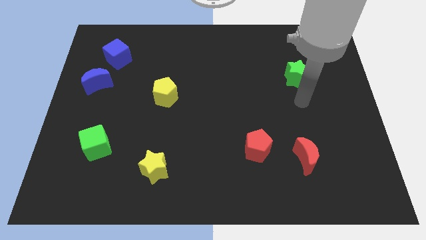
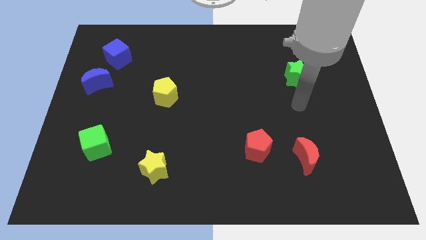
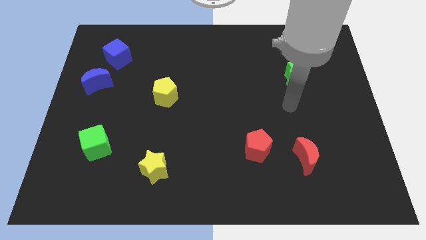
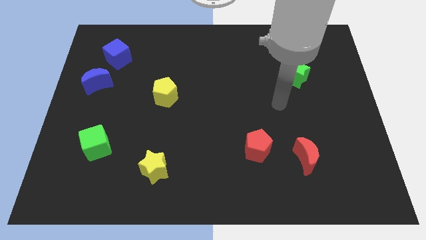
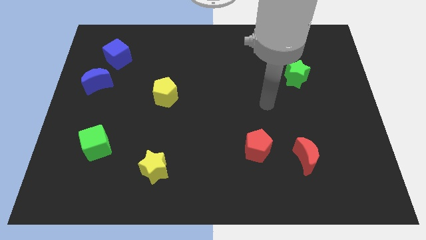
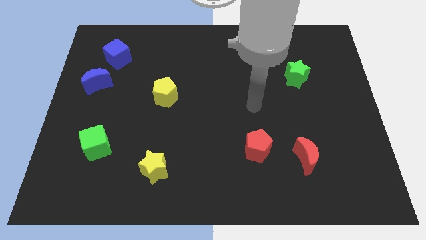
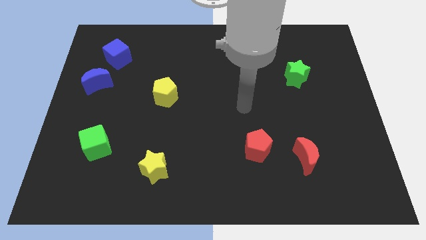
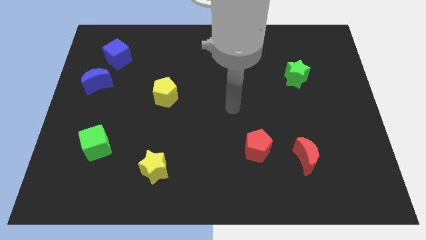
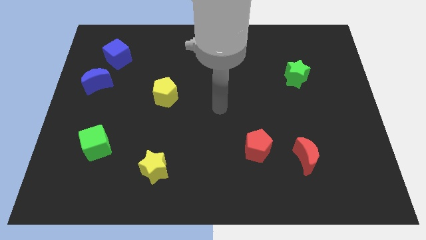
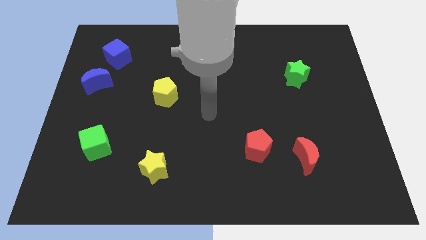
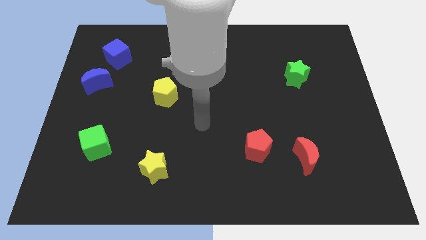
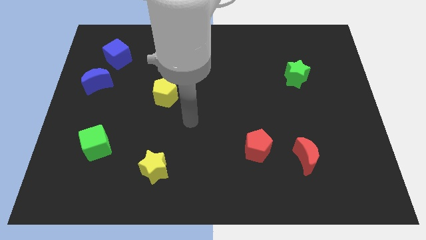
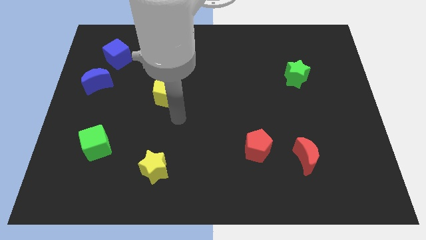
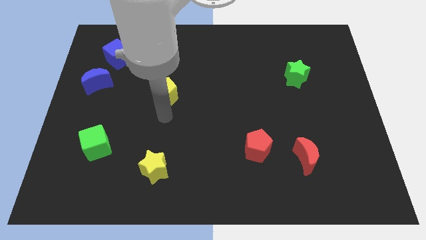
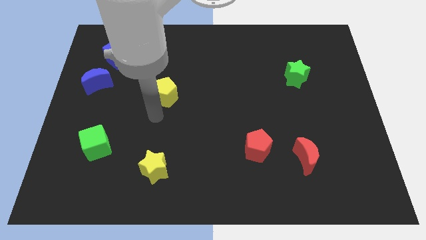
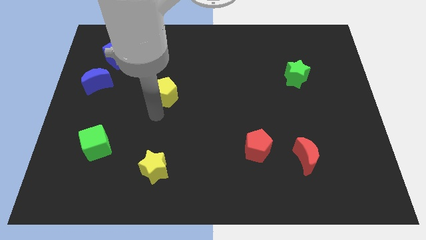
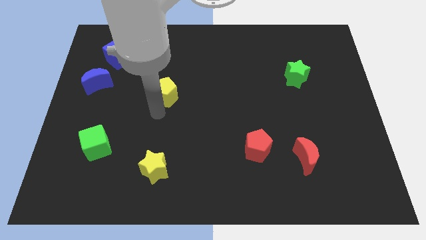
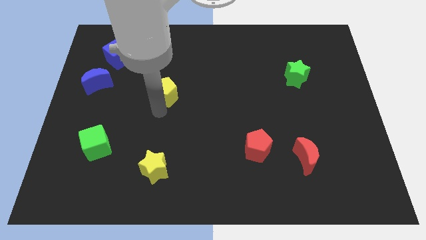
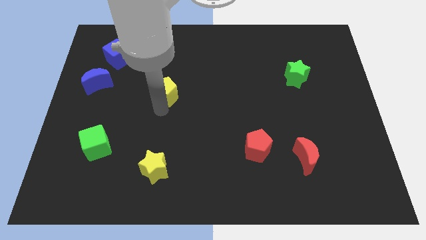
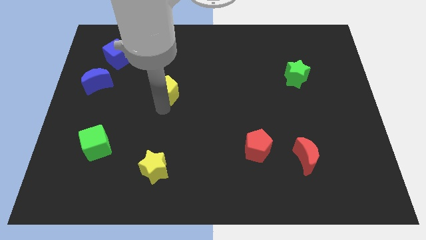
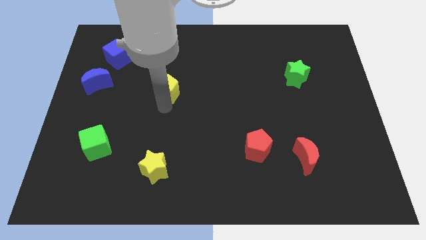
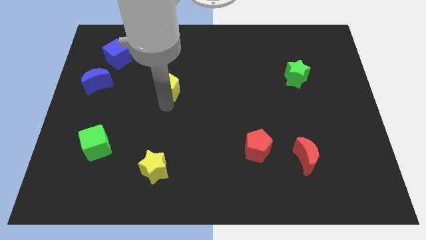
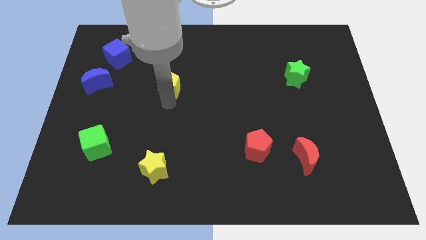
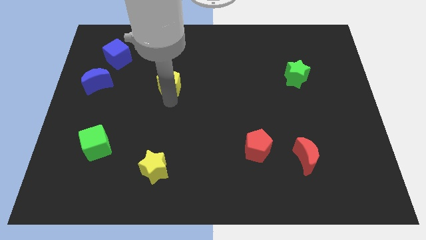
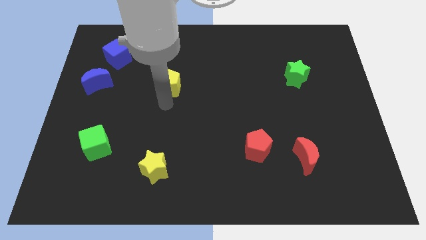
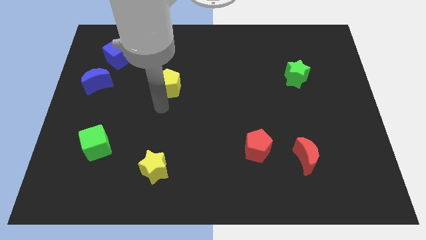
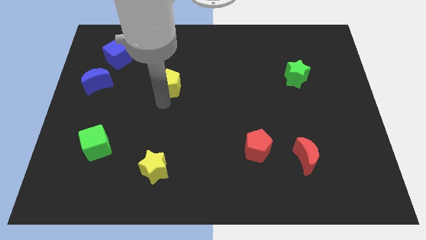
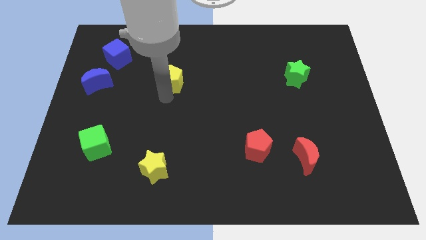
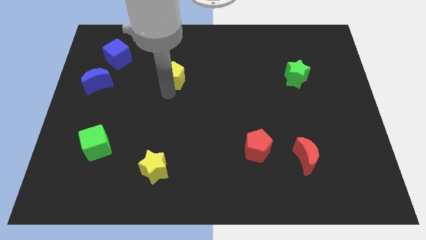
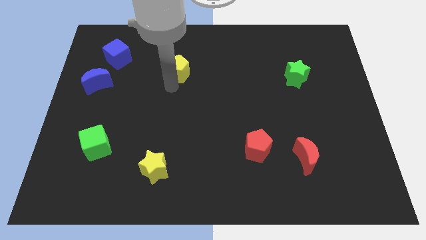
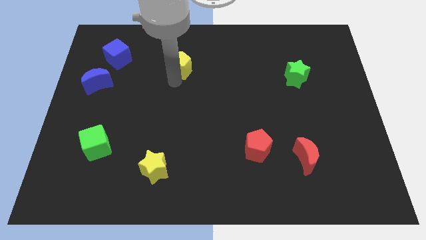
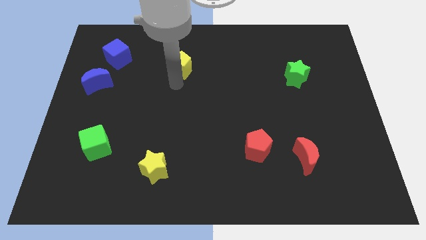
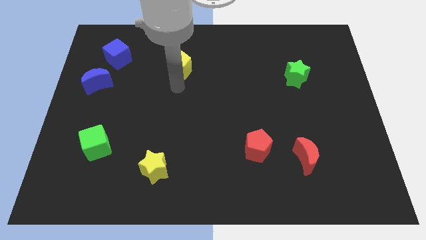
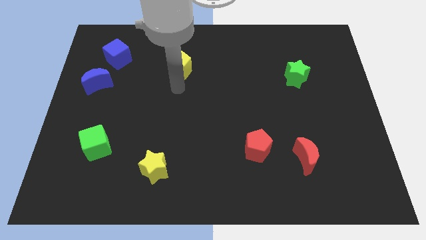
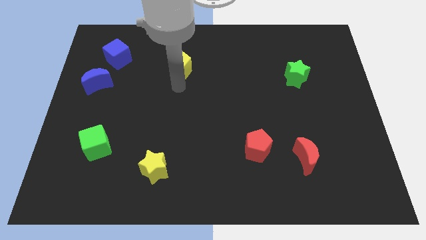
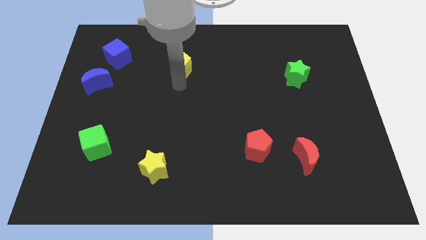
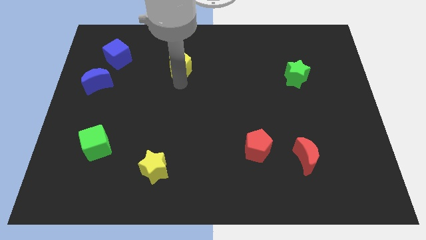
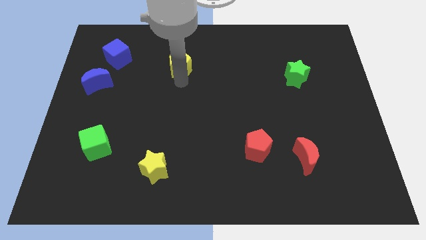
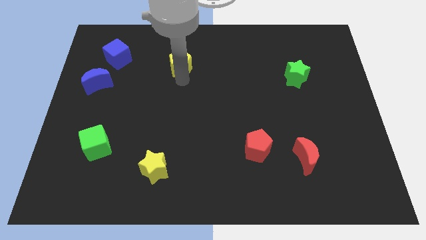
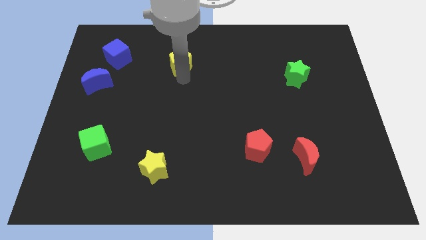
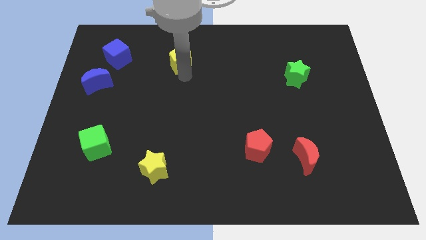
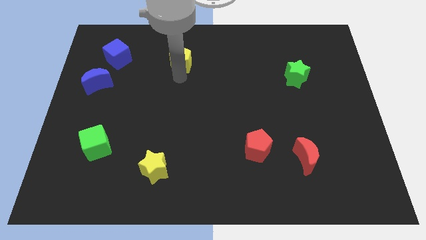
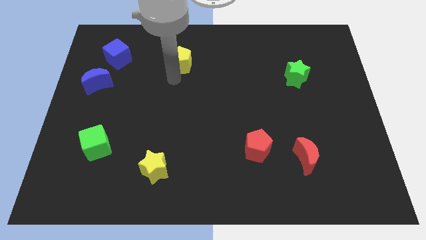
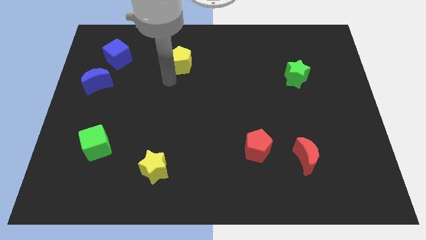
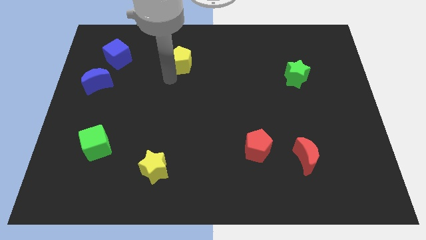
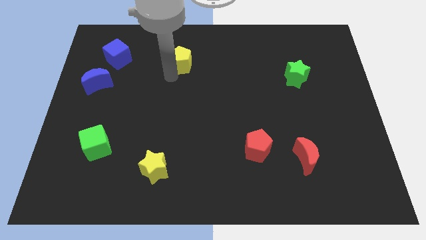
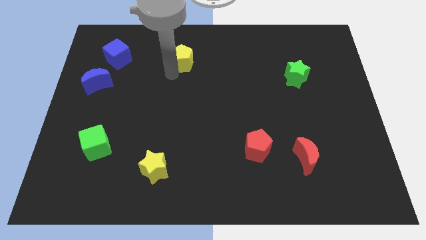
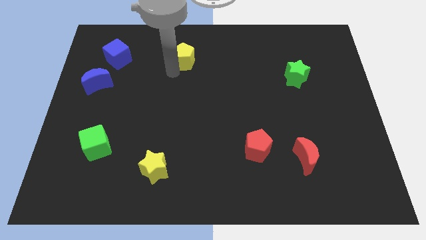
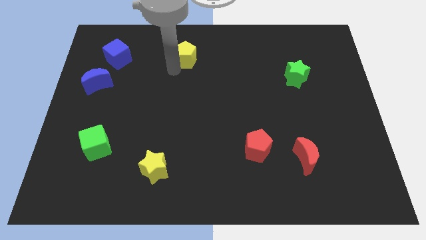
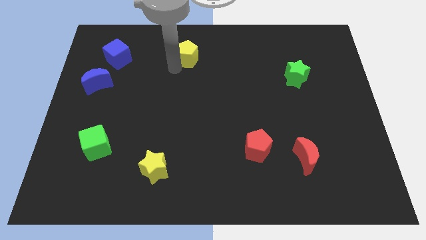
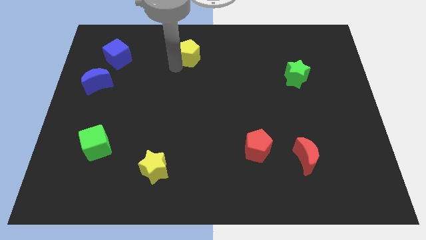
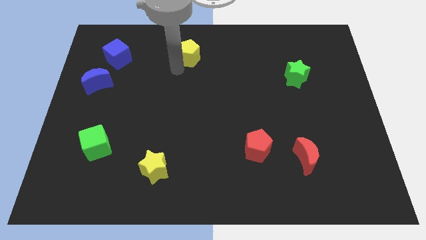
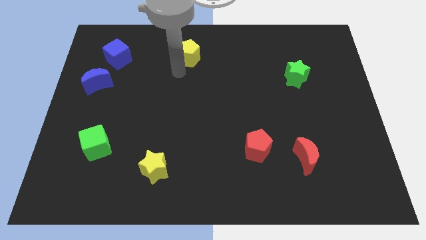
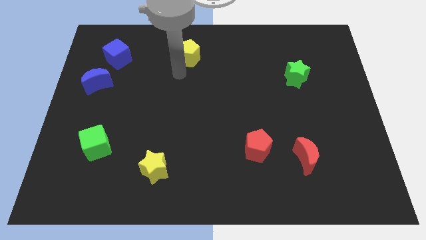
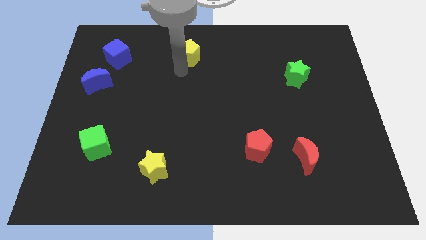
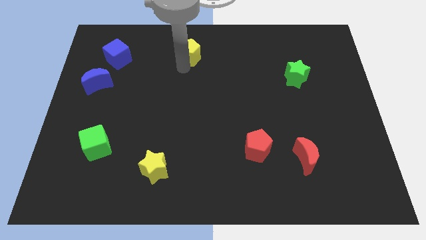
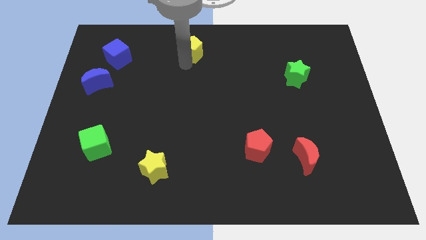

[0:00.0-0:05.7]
slide the yellow pentagon to the towards your base

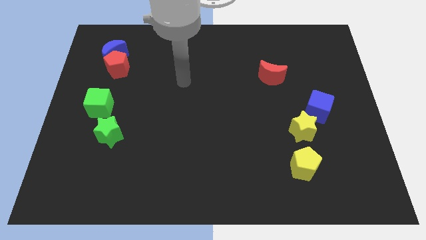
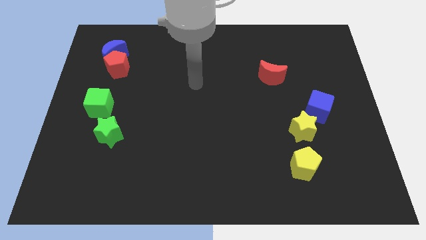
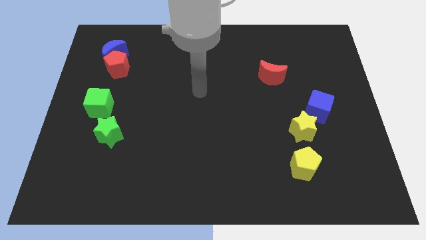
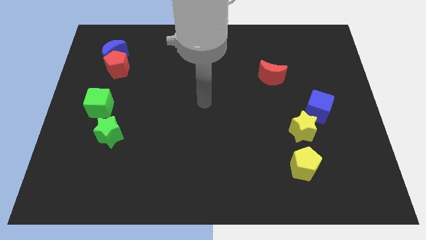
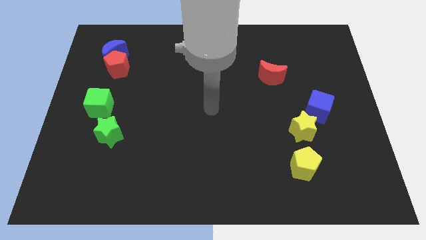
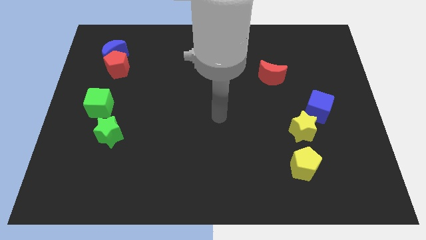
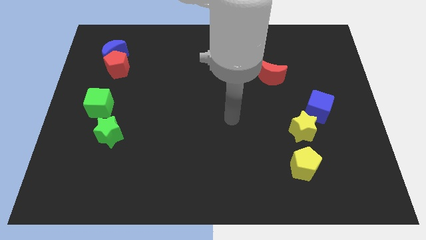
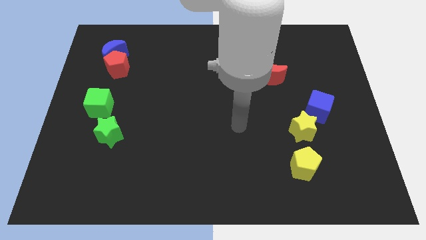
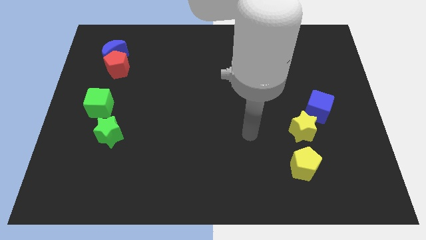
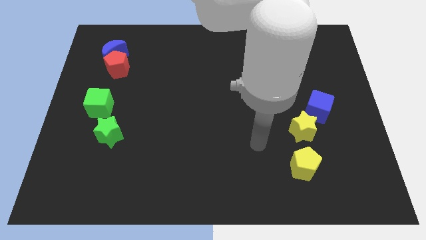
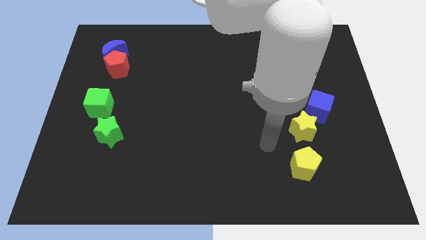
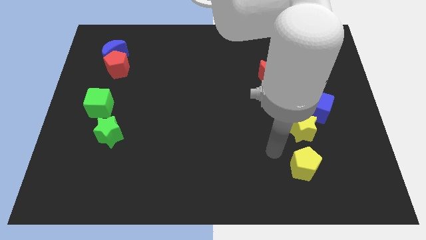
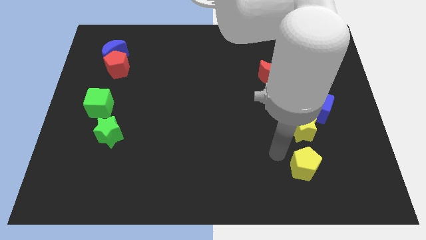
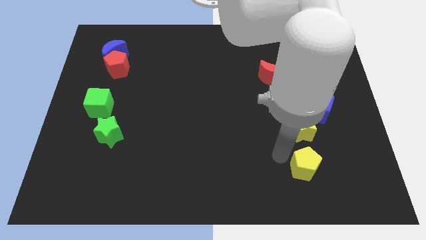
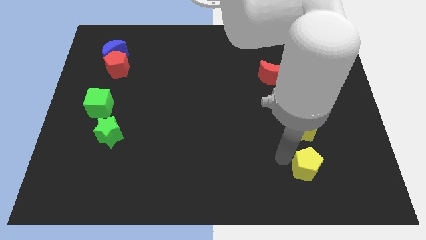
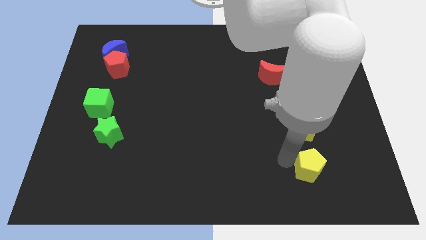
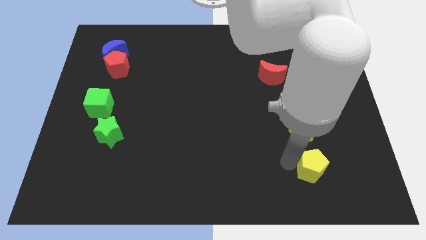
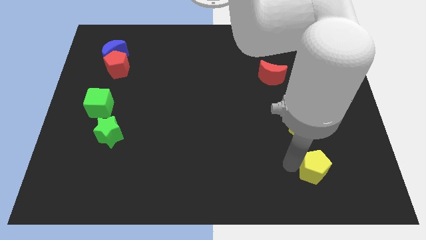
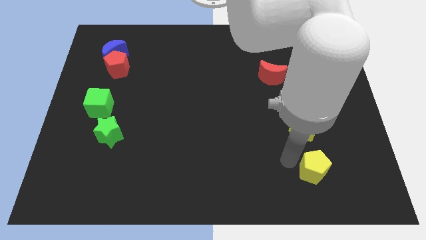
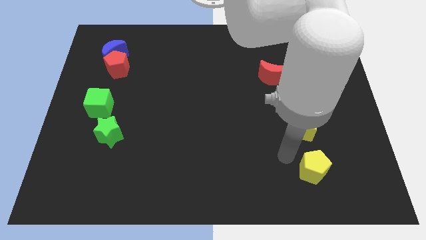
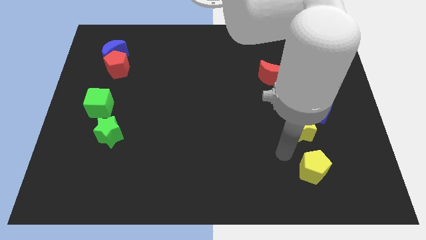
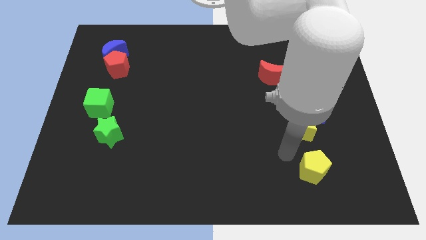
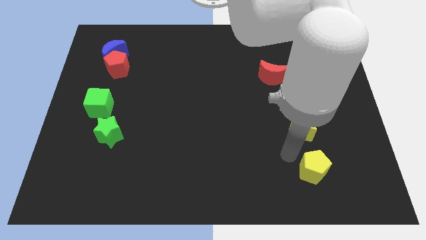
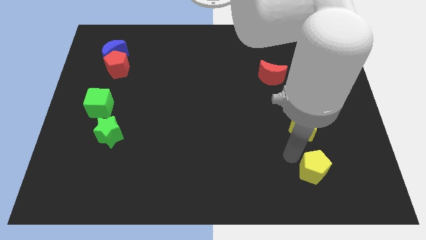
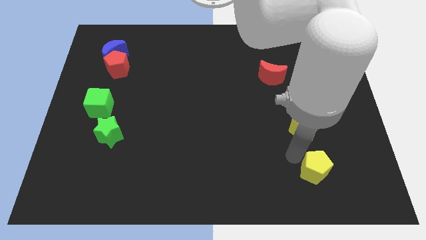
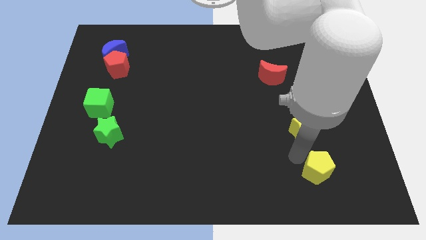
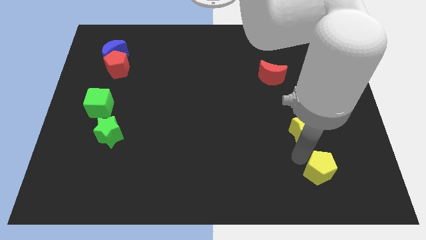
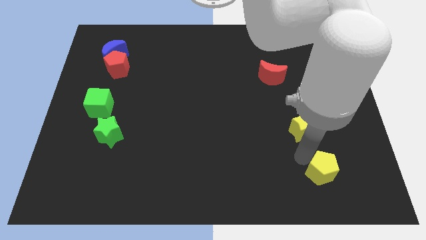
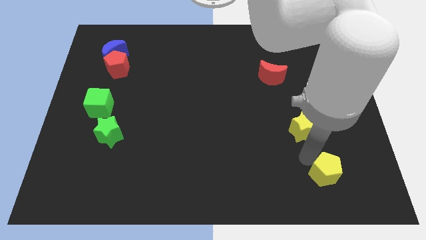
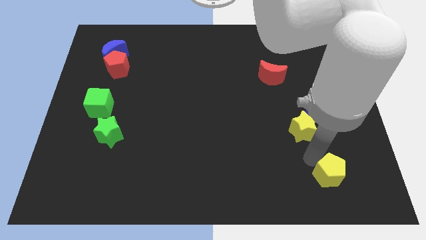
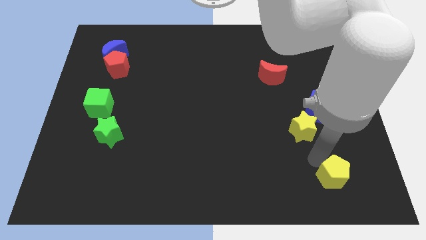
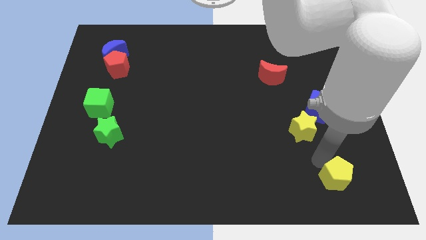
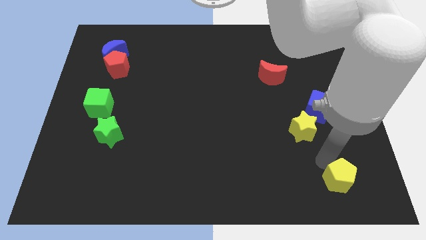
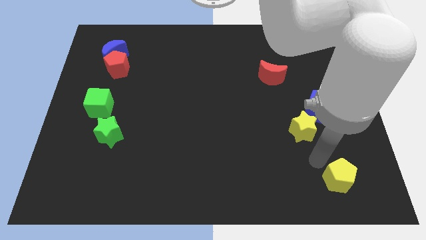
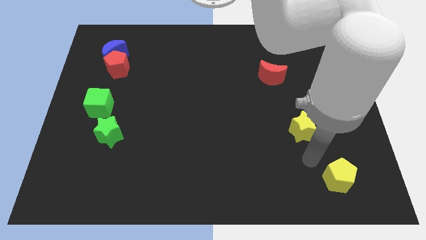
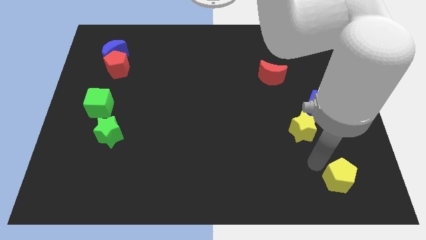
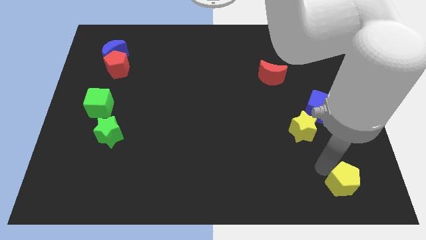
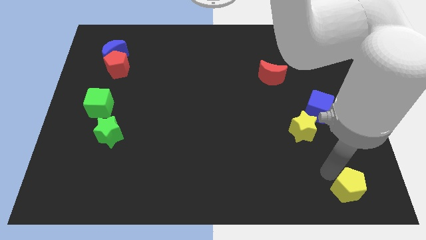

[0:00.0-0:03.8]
push the yellow pentagon to the lower right corner
